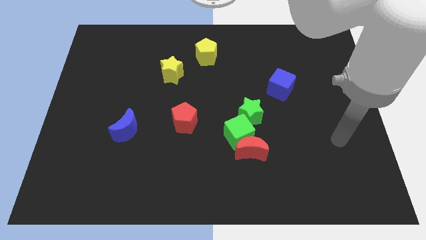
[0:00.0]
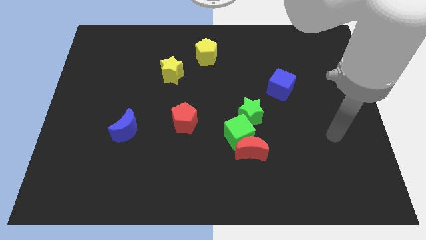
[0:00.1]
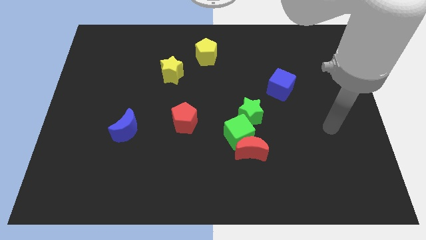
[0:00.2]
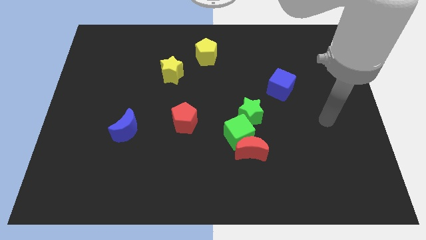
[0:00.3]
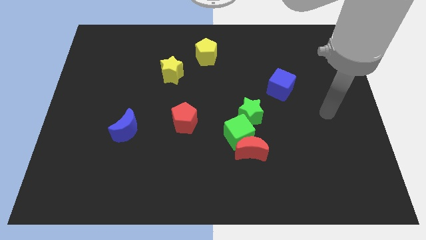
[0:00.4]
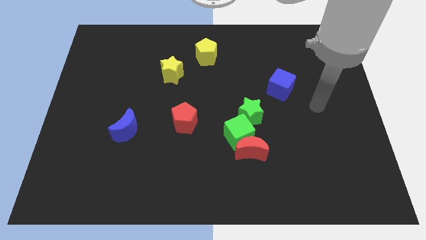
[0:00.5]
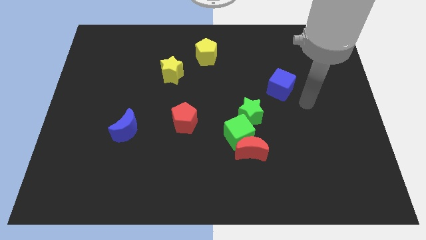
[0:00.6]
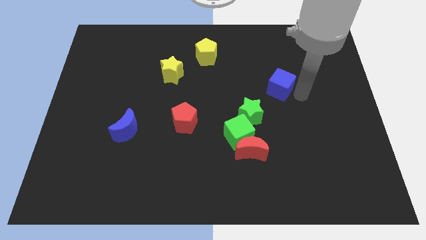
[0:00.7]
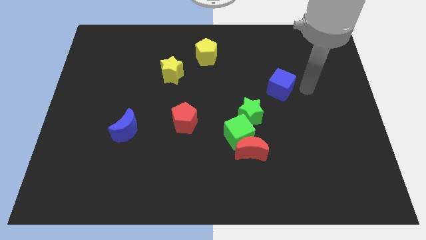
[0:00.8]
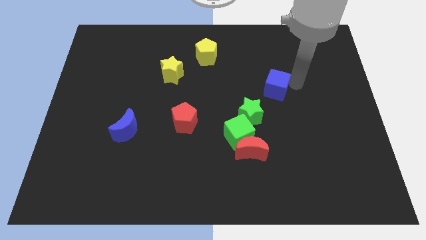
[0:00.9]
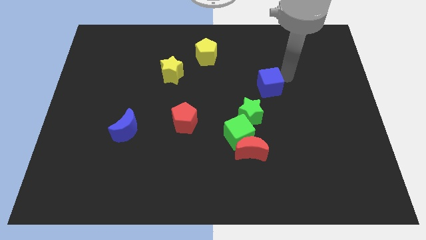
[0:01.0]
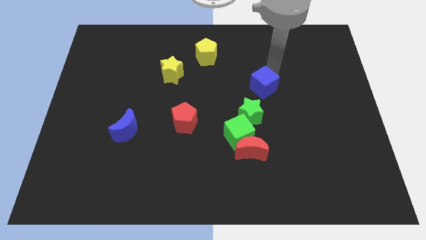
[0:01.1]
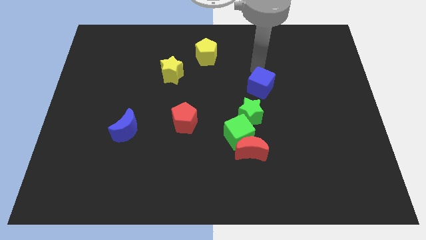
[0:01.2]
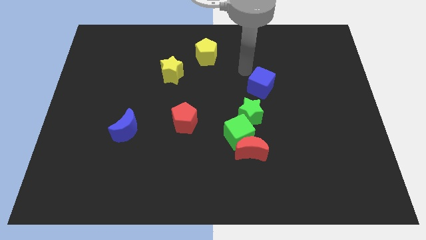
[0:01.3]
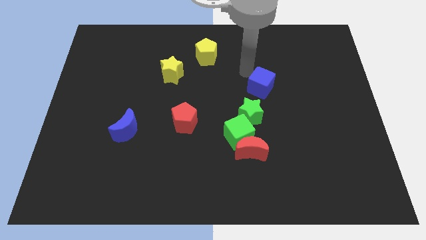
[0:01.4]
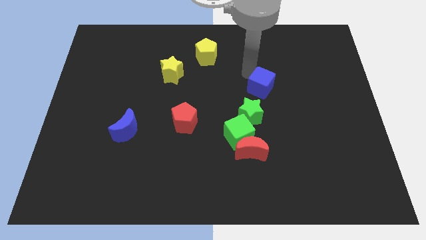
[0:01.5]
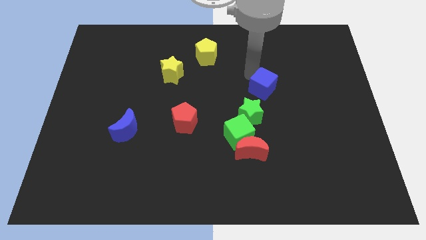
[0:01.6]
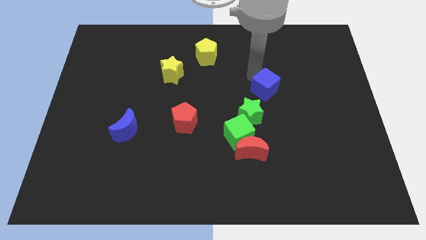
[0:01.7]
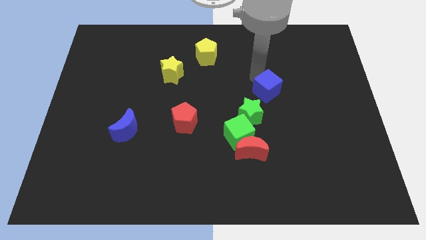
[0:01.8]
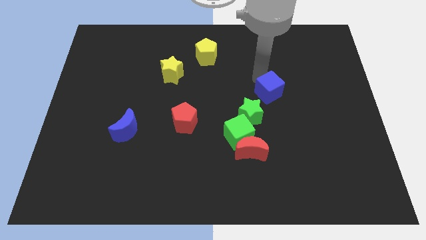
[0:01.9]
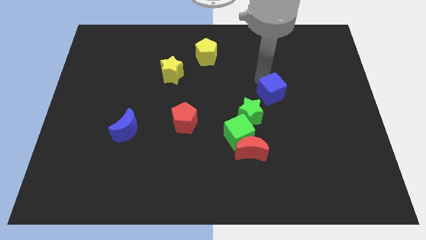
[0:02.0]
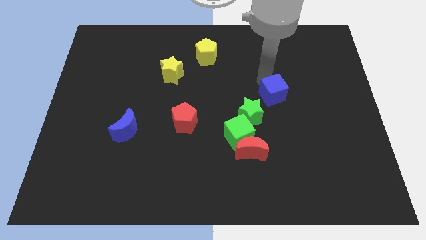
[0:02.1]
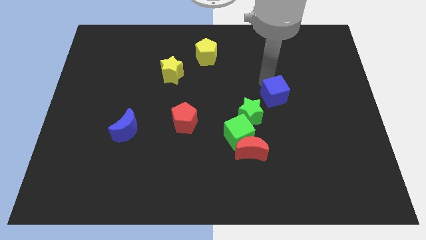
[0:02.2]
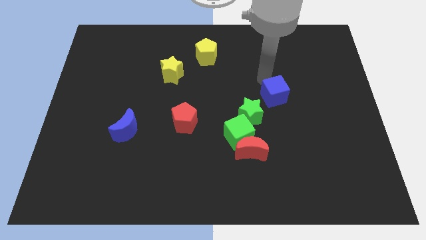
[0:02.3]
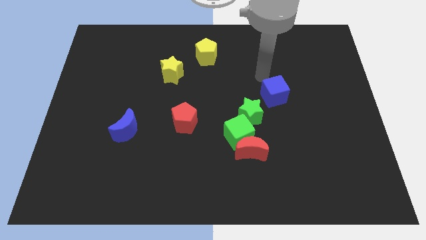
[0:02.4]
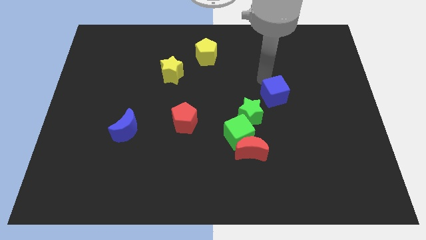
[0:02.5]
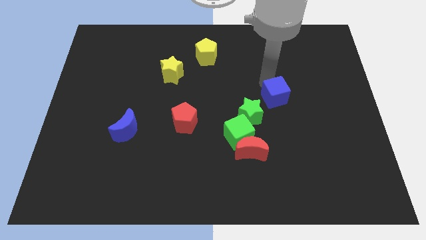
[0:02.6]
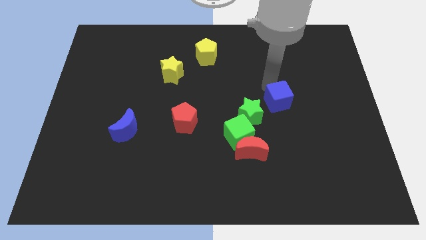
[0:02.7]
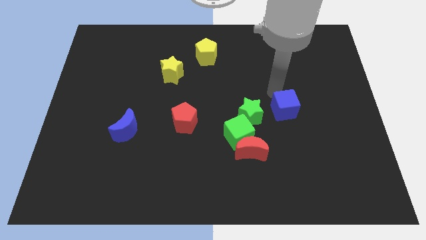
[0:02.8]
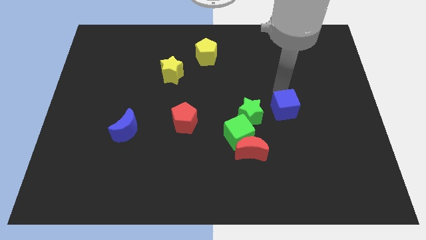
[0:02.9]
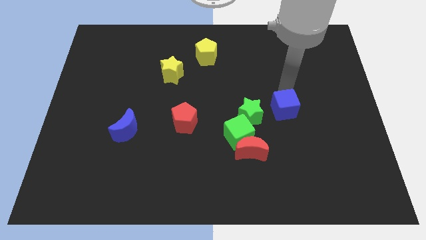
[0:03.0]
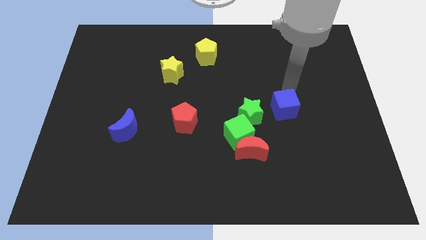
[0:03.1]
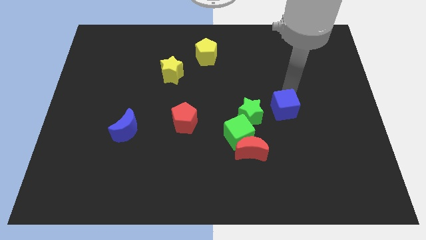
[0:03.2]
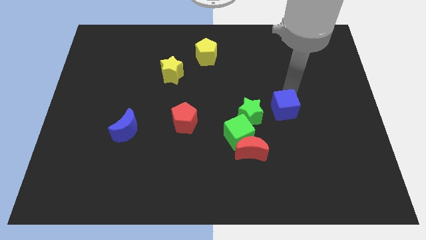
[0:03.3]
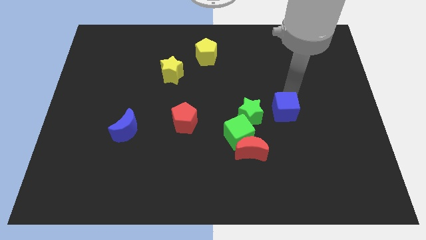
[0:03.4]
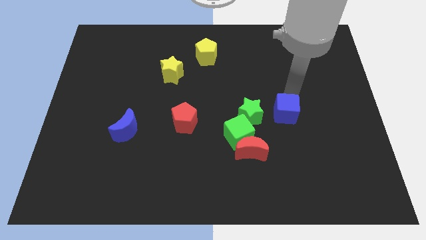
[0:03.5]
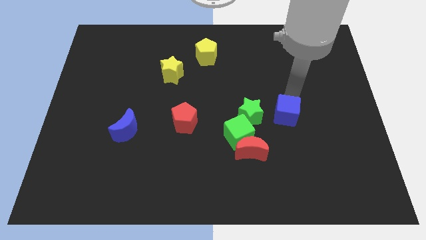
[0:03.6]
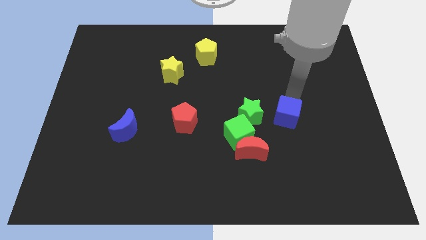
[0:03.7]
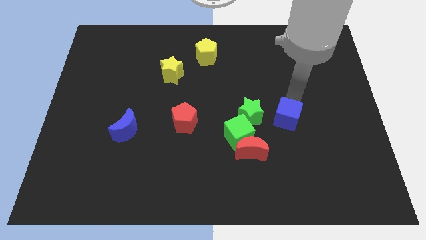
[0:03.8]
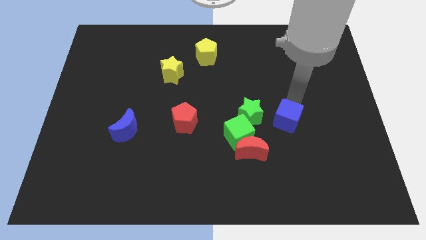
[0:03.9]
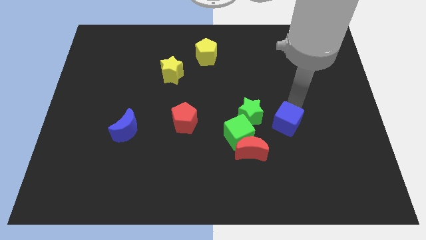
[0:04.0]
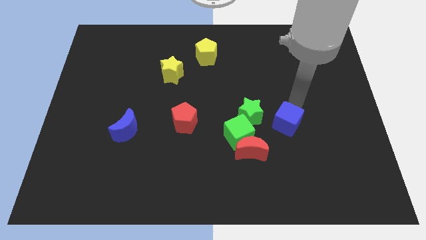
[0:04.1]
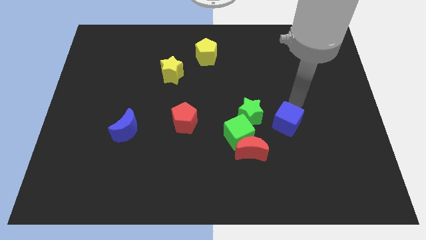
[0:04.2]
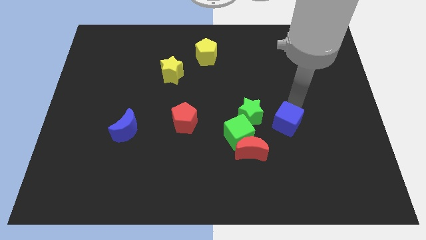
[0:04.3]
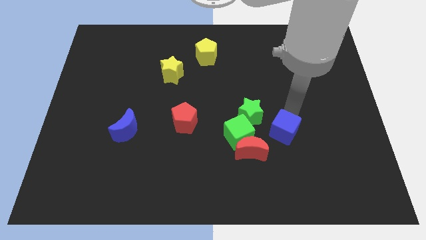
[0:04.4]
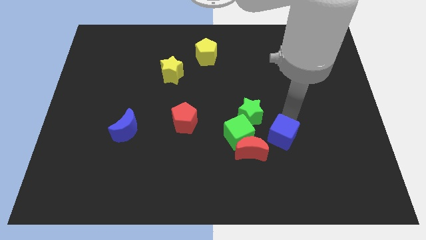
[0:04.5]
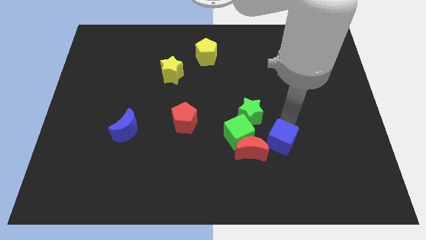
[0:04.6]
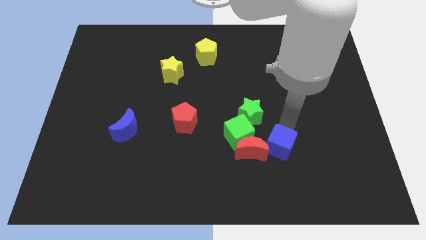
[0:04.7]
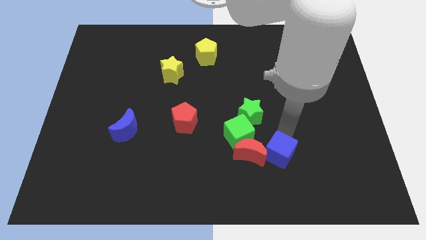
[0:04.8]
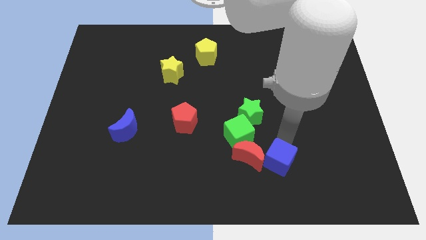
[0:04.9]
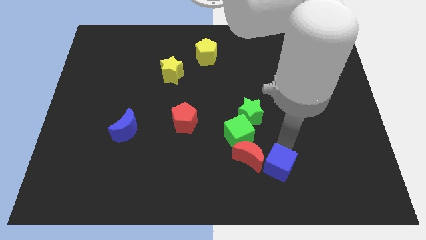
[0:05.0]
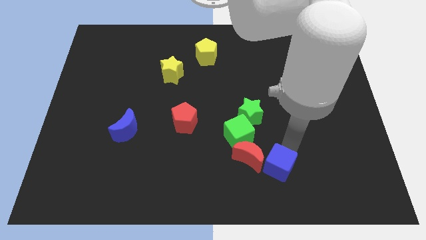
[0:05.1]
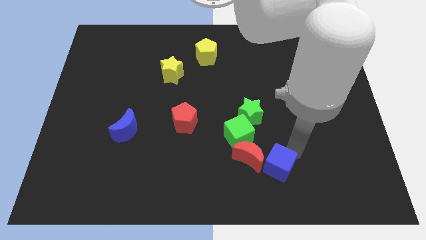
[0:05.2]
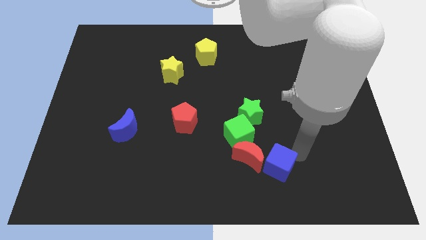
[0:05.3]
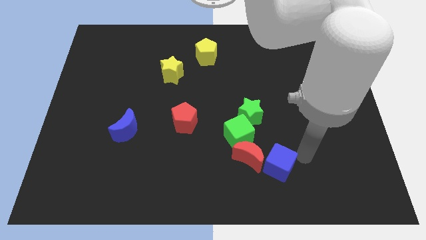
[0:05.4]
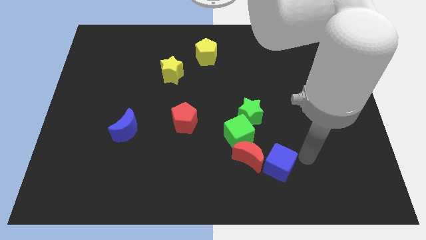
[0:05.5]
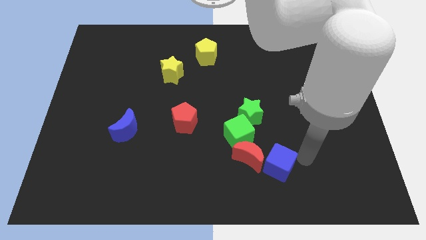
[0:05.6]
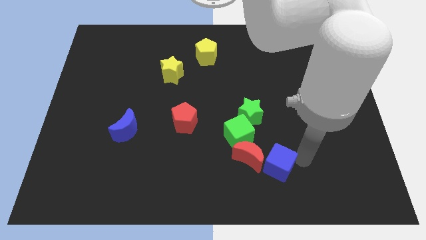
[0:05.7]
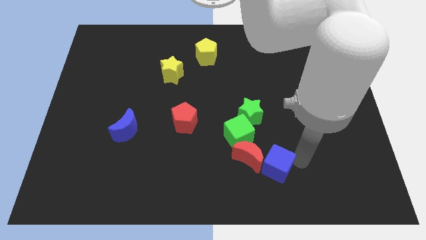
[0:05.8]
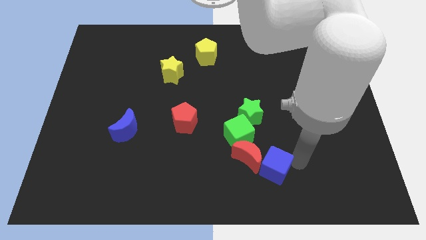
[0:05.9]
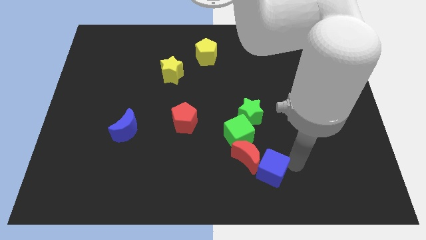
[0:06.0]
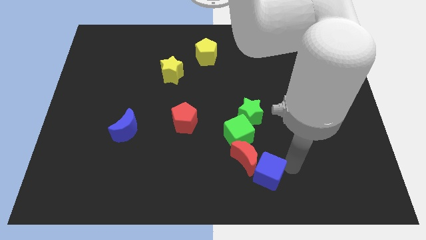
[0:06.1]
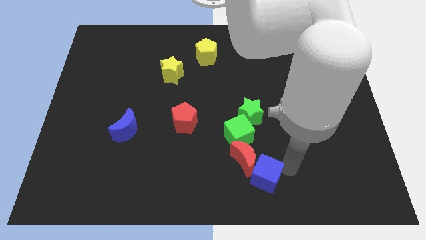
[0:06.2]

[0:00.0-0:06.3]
push the blue cube to the bottom
